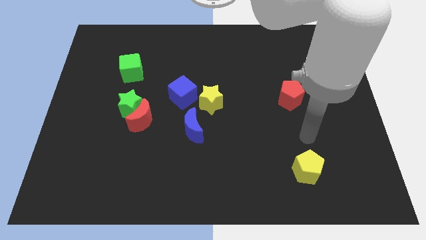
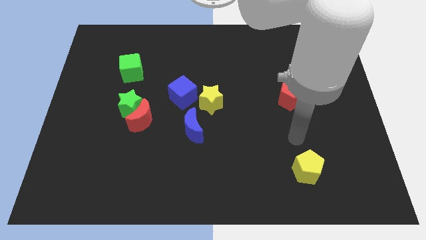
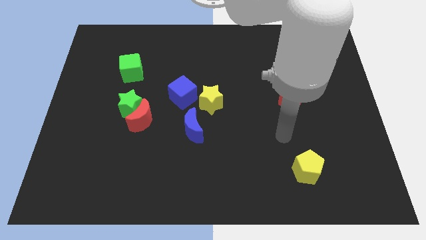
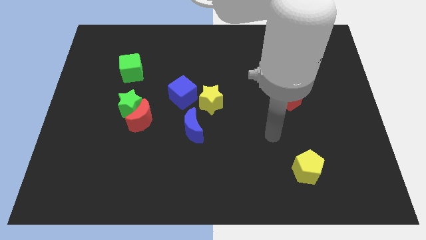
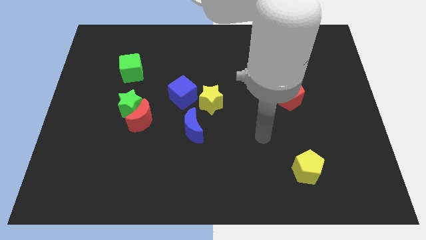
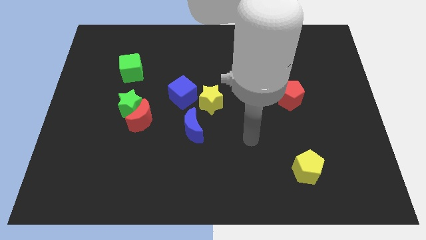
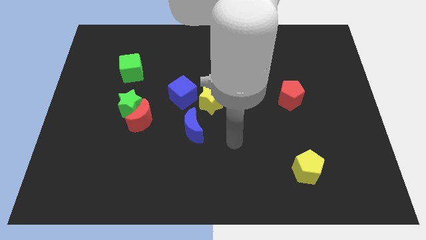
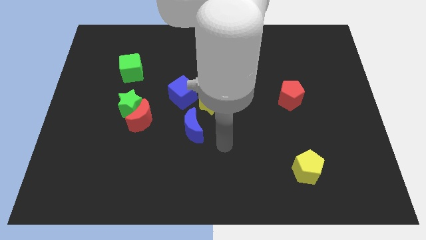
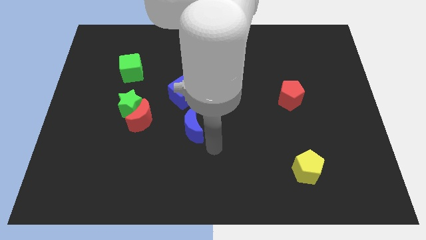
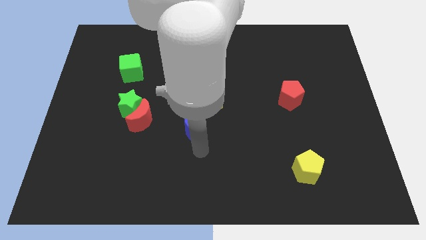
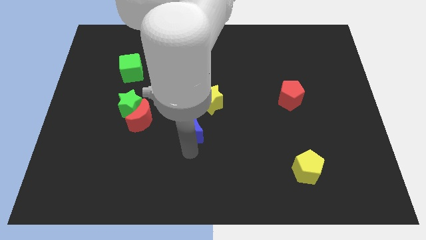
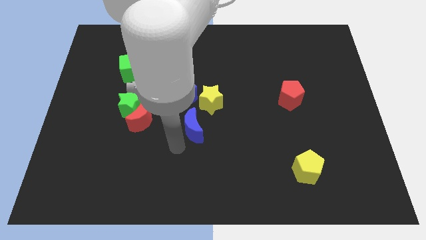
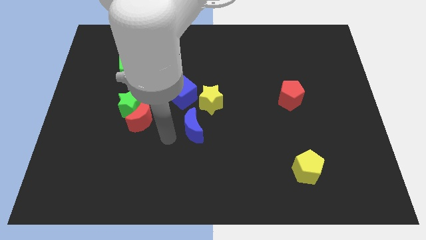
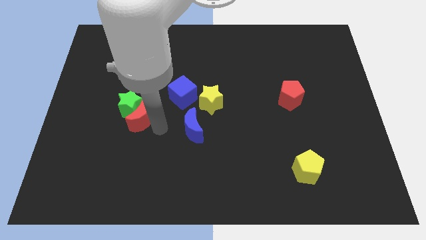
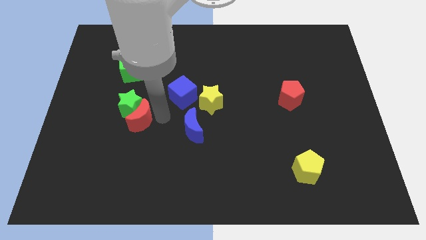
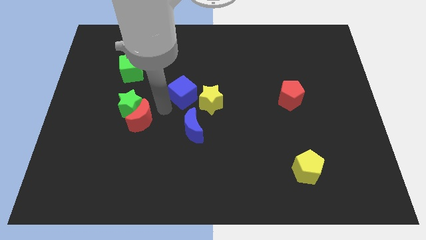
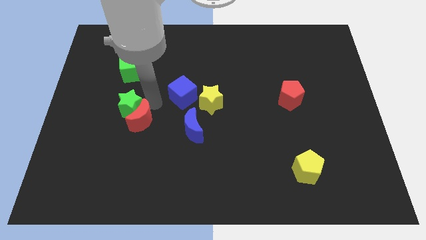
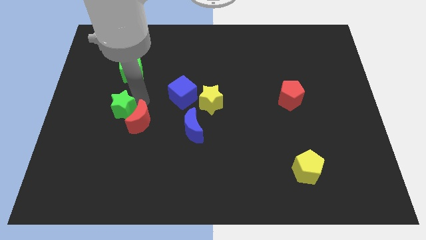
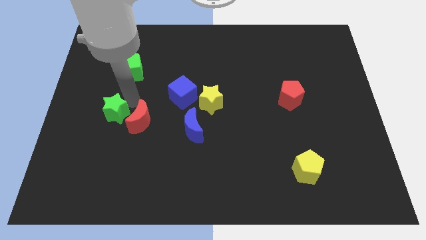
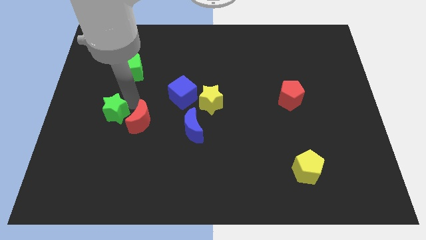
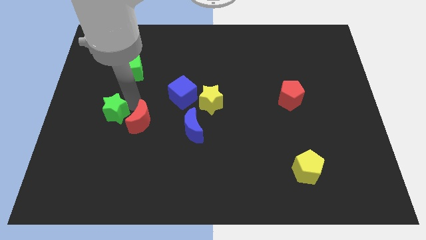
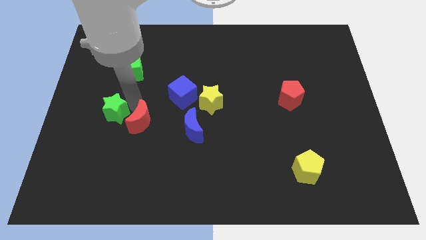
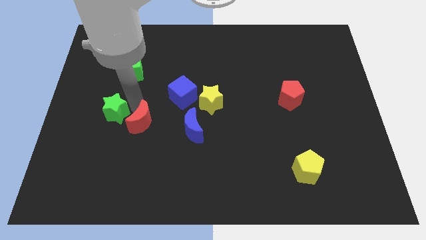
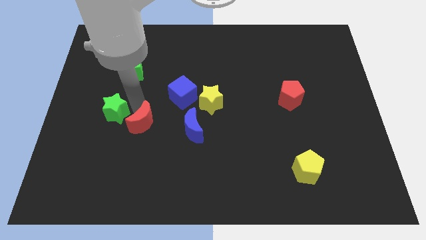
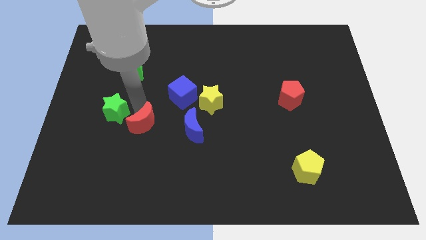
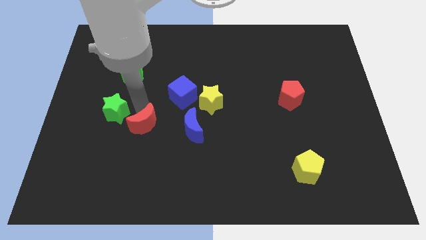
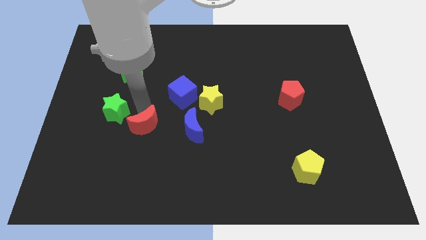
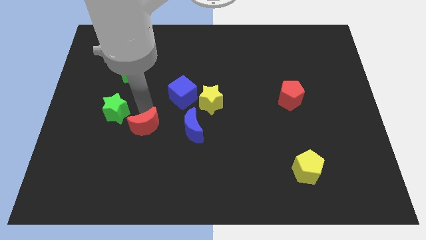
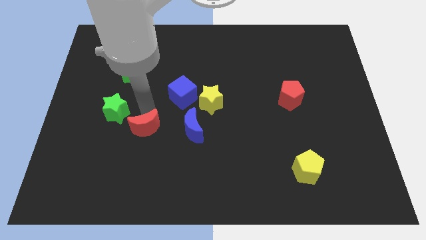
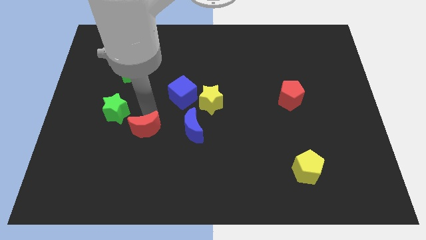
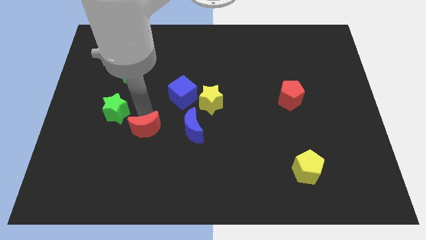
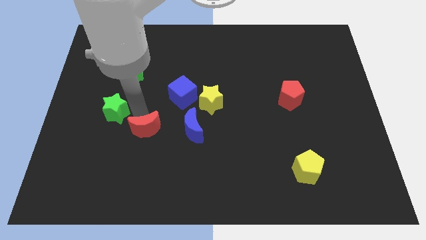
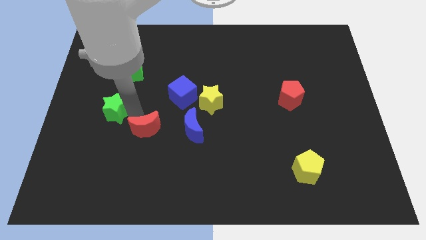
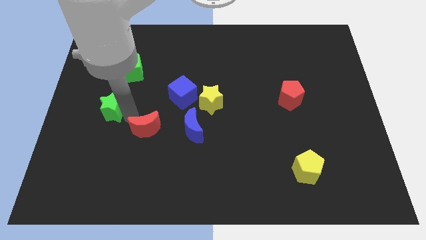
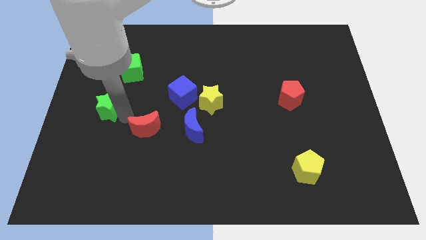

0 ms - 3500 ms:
move the red moon away from the green star

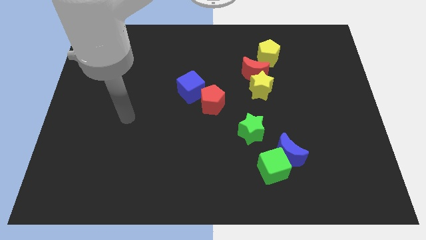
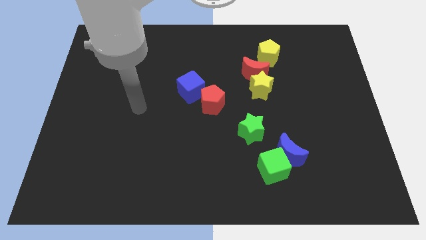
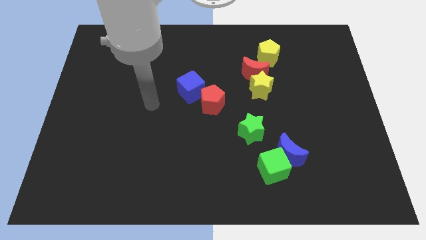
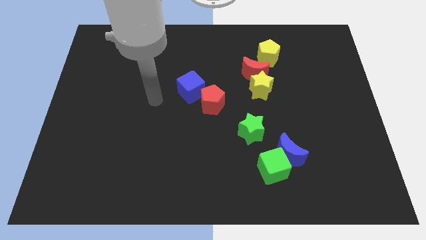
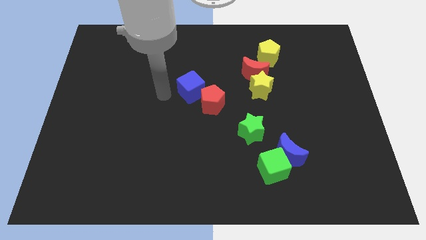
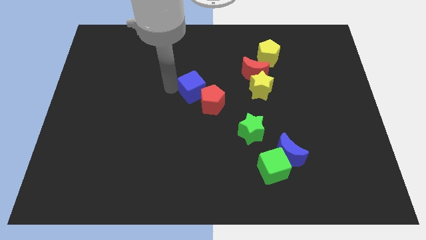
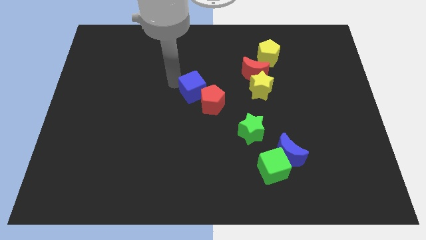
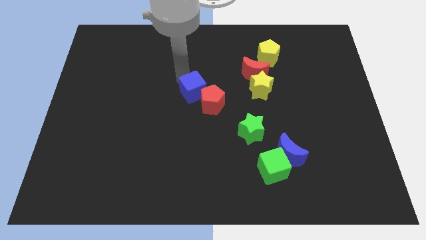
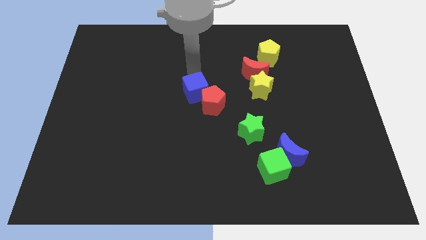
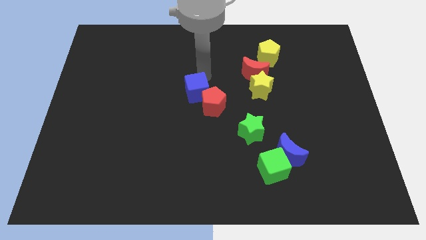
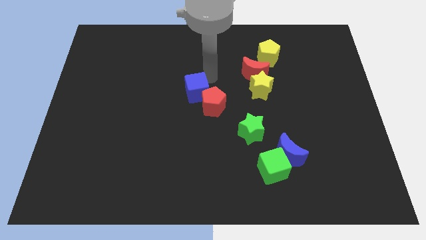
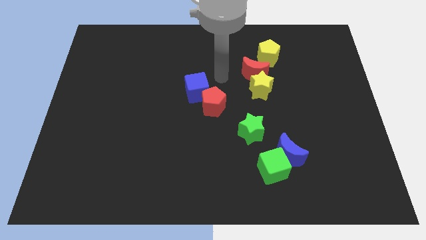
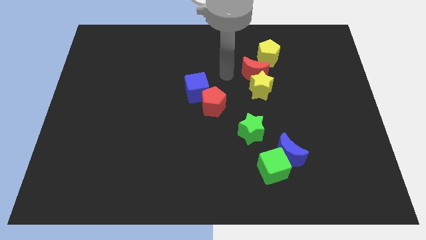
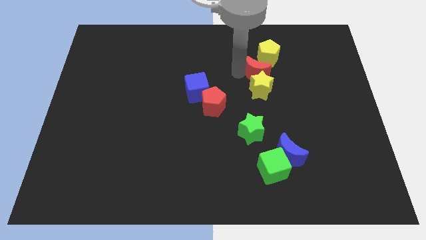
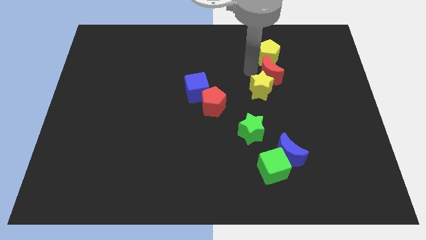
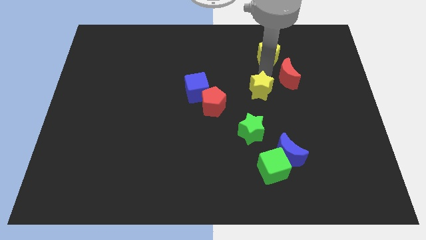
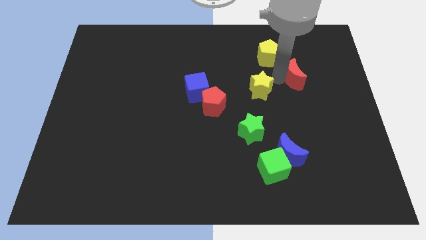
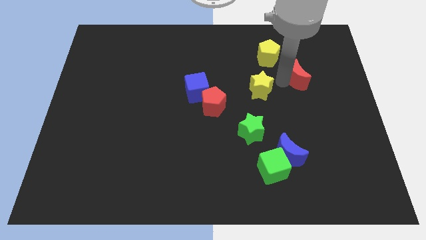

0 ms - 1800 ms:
separate the yellow star from the red moon

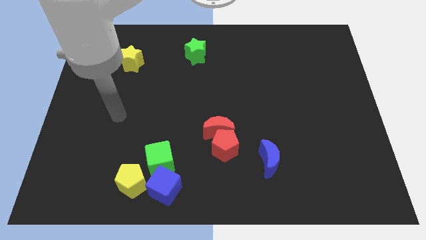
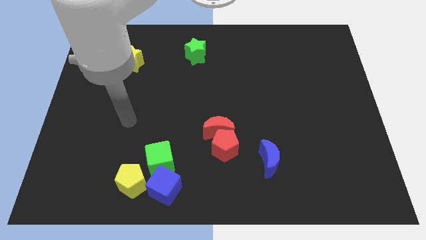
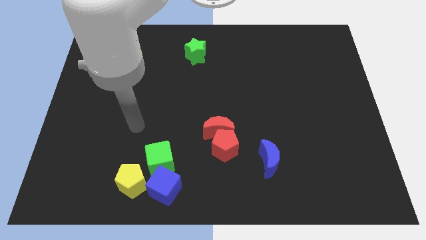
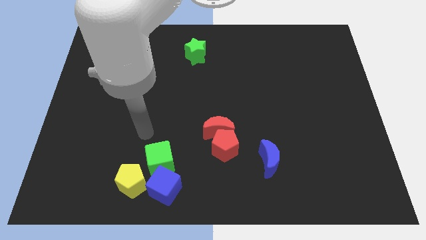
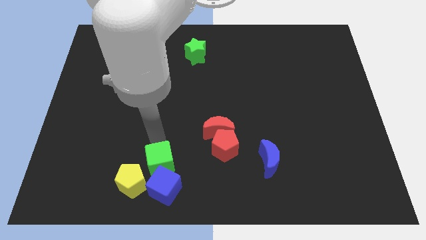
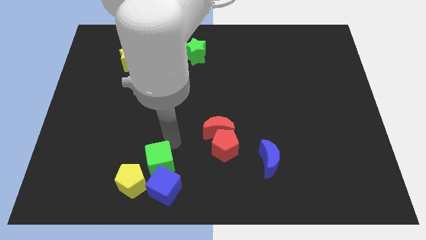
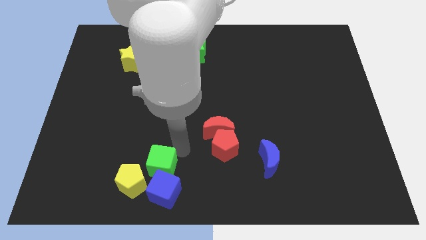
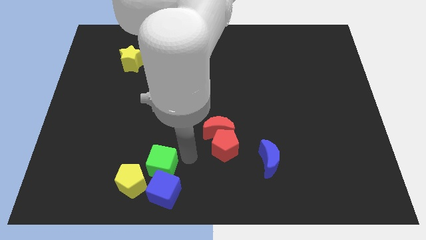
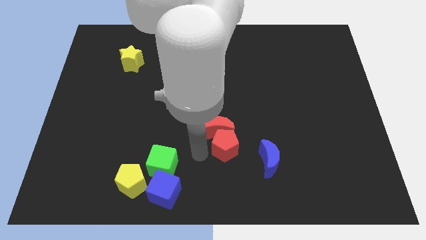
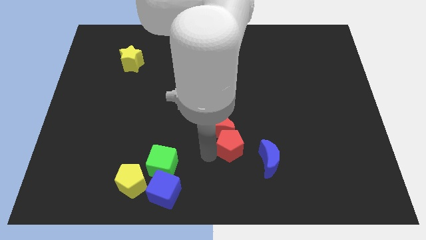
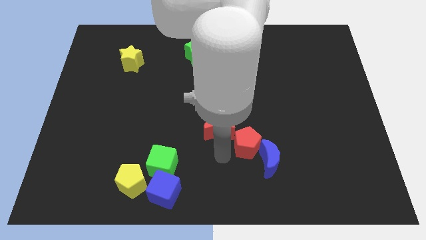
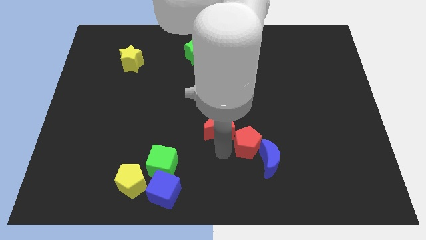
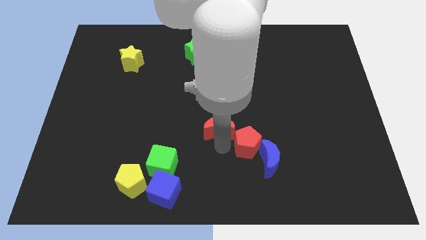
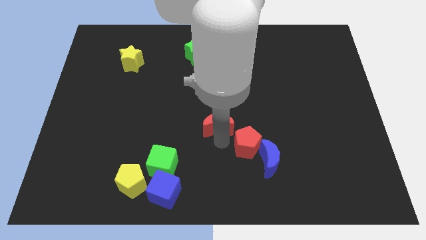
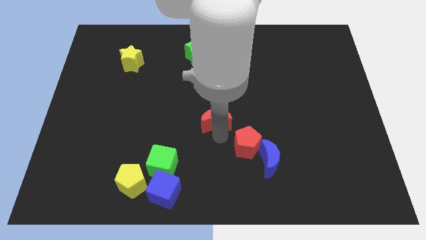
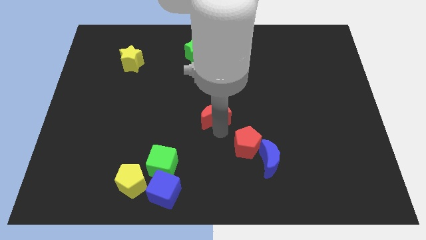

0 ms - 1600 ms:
pull the red moon apart from the red pentagon

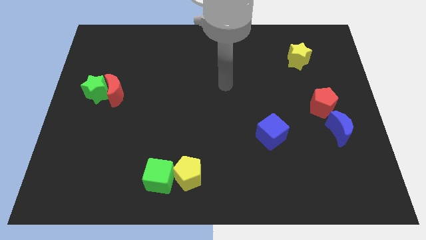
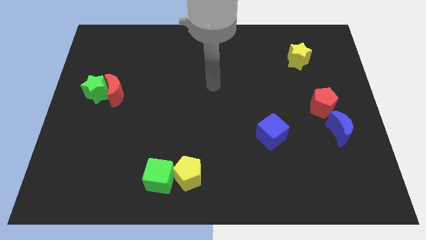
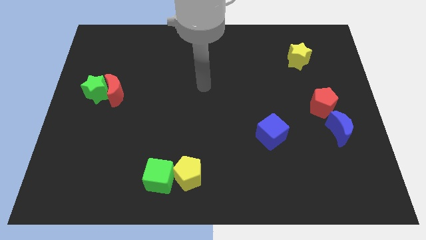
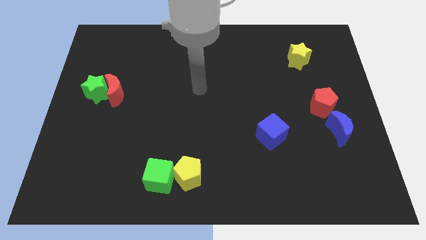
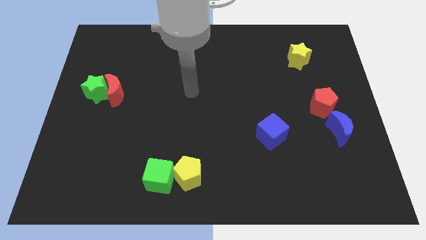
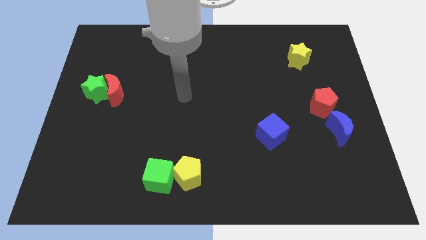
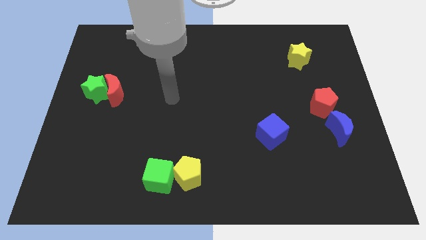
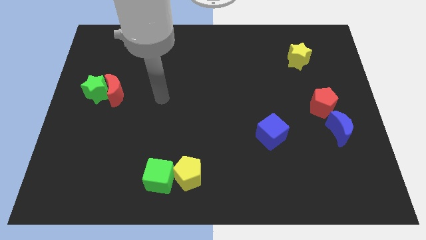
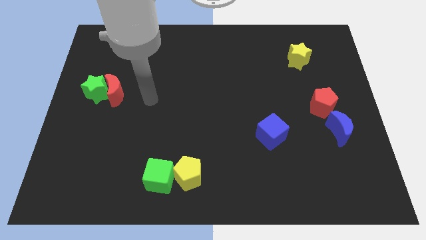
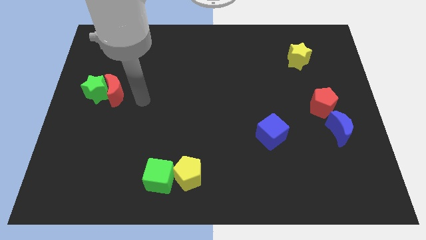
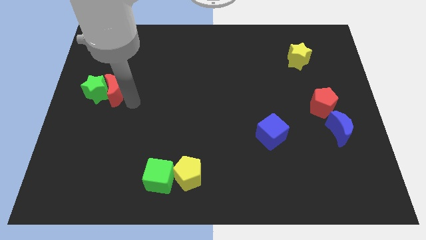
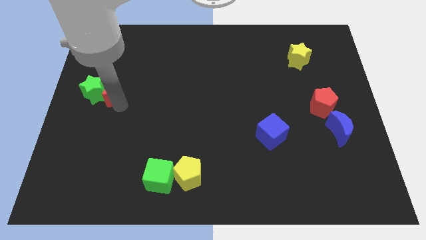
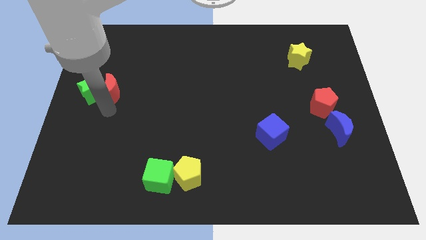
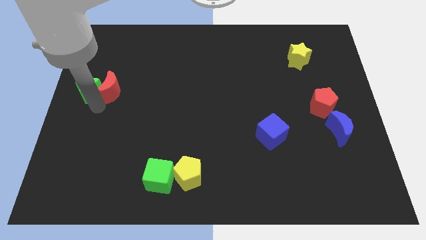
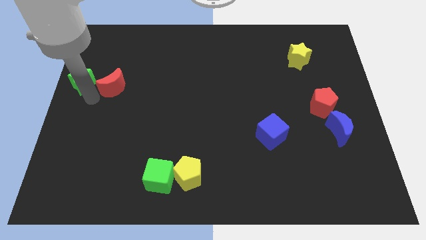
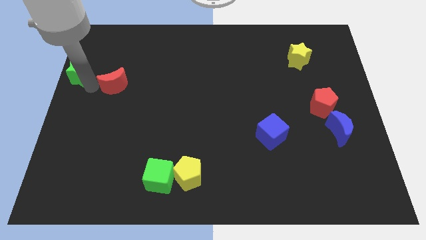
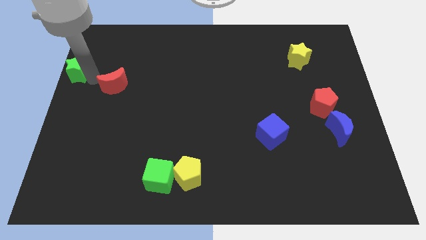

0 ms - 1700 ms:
separate the red moon from the green star

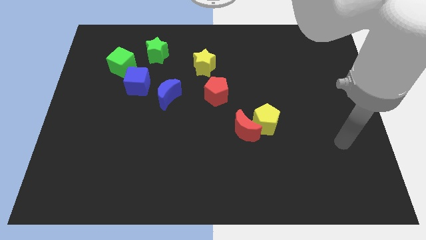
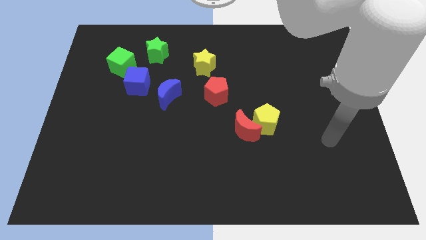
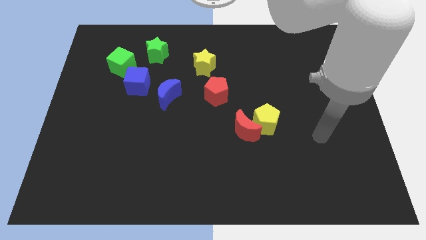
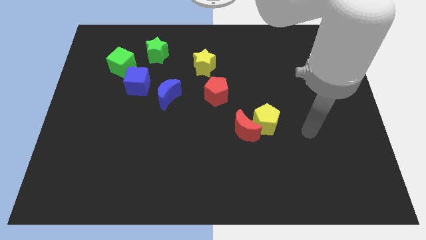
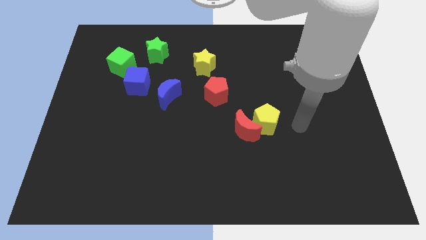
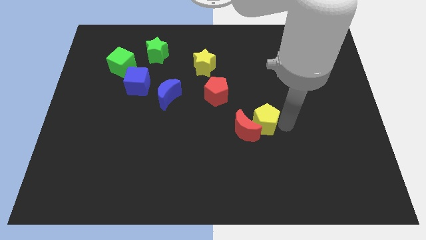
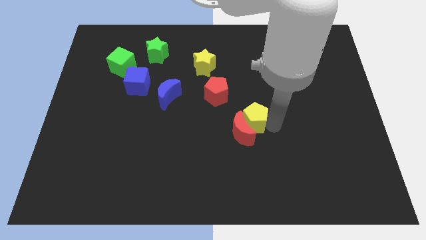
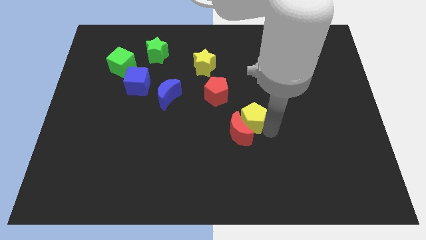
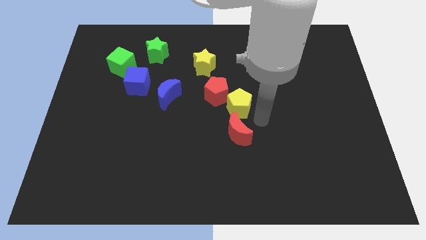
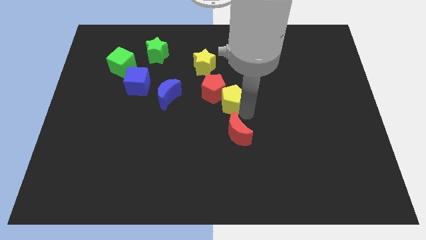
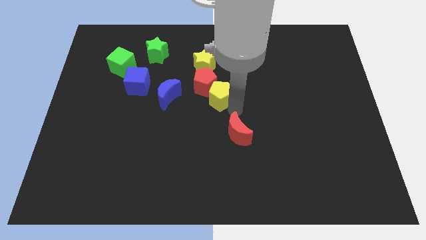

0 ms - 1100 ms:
separate the red moon from the yellow pentagon
